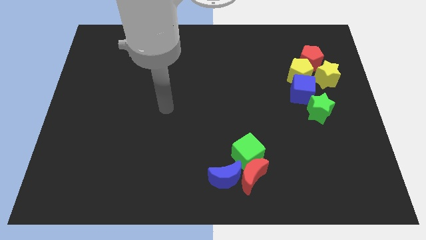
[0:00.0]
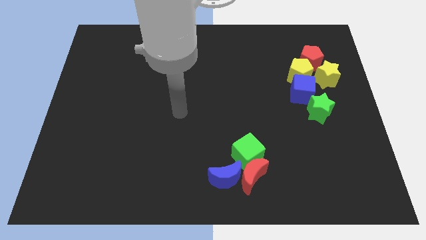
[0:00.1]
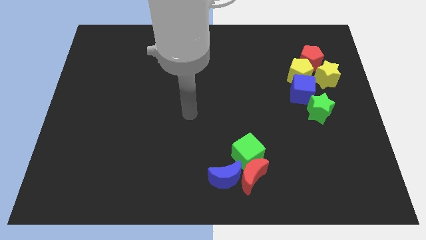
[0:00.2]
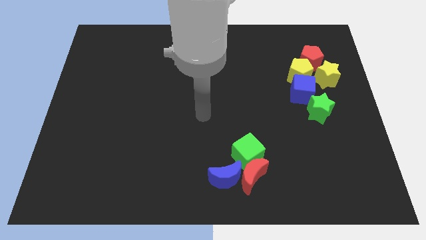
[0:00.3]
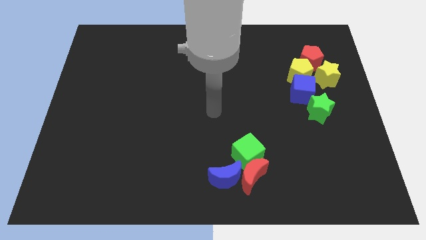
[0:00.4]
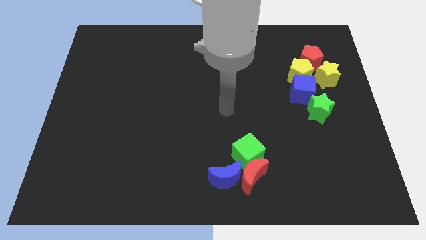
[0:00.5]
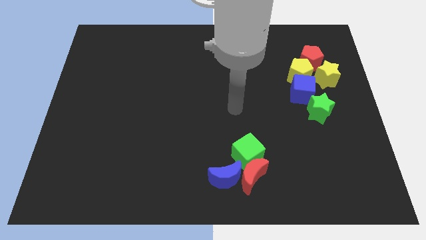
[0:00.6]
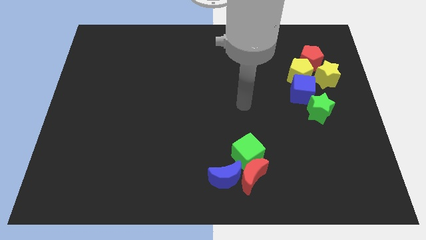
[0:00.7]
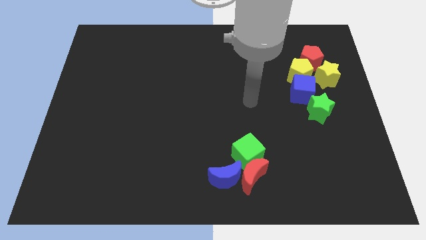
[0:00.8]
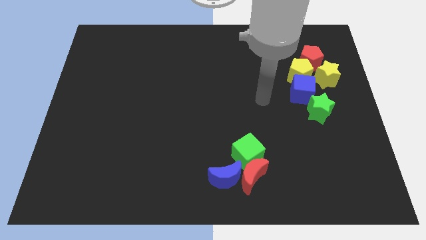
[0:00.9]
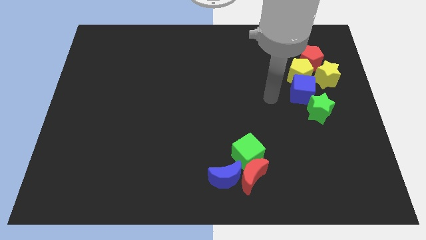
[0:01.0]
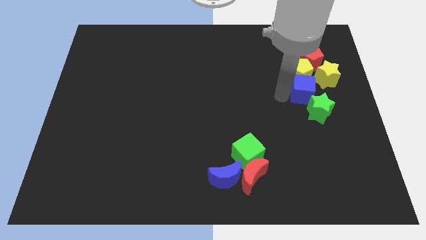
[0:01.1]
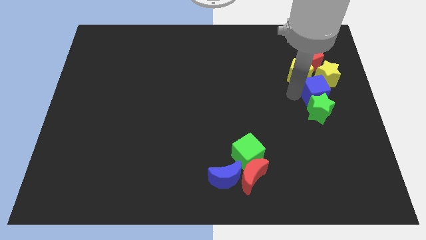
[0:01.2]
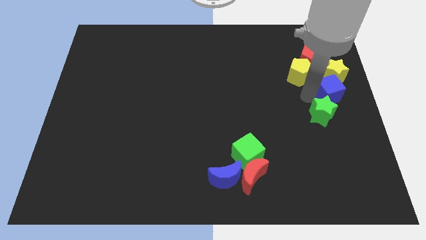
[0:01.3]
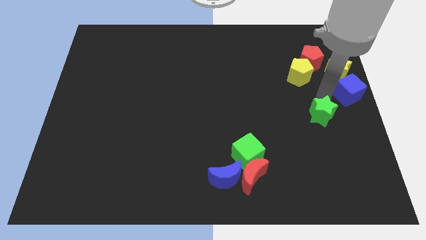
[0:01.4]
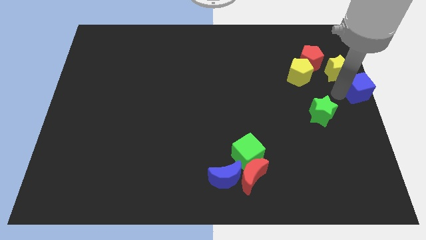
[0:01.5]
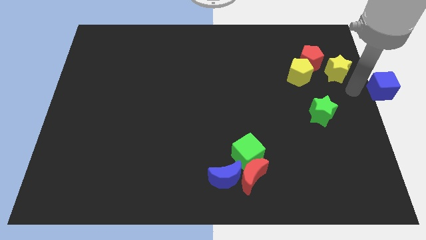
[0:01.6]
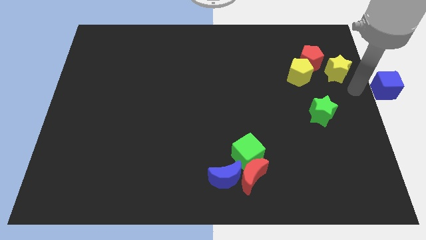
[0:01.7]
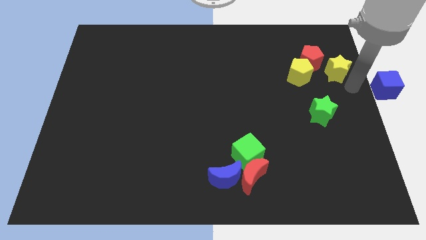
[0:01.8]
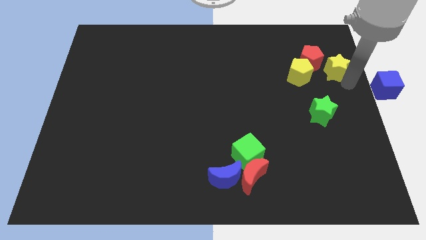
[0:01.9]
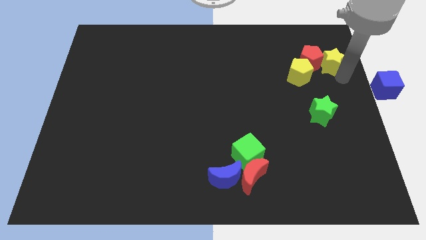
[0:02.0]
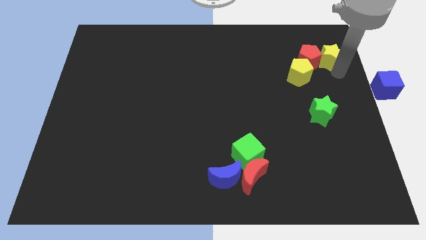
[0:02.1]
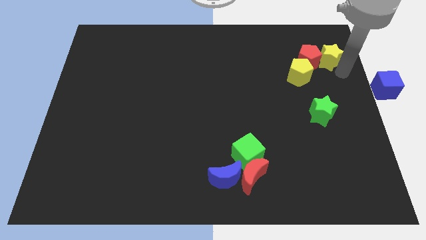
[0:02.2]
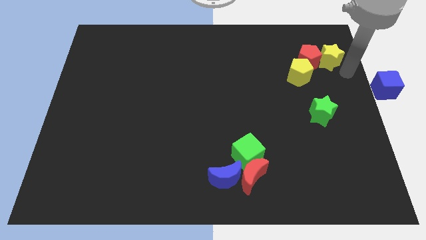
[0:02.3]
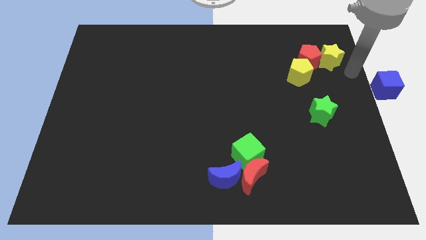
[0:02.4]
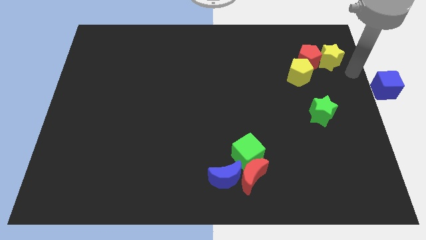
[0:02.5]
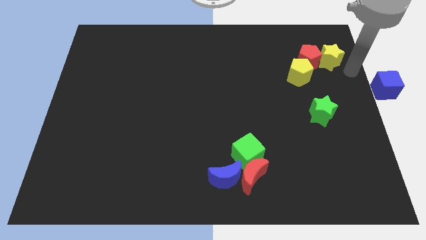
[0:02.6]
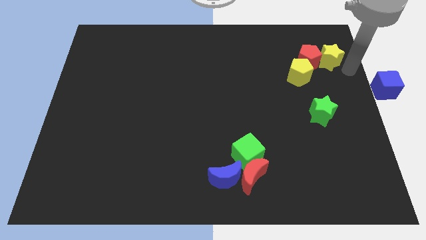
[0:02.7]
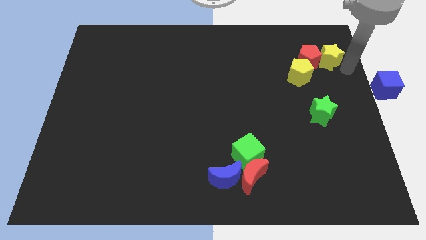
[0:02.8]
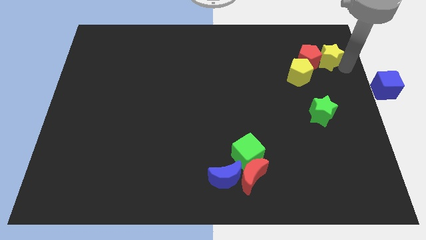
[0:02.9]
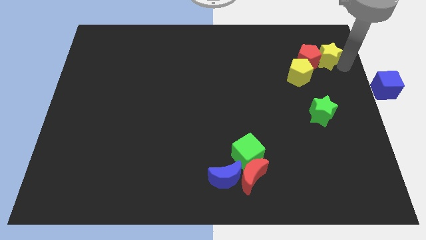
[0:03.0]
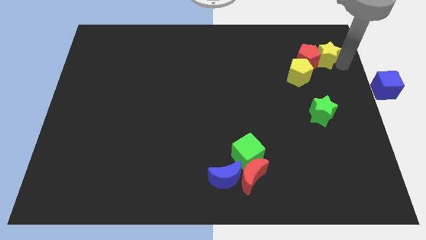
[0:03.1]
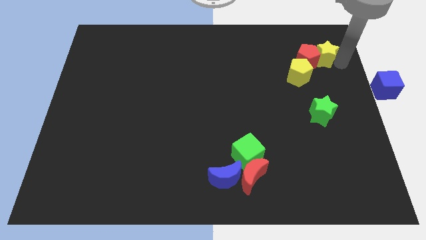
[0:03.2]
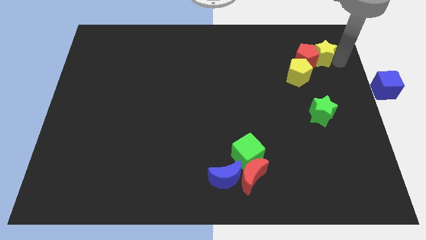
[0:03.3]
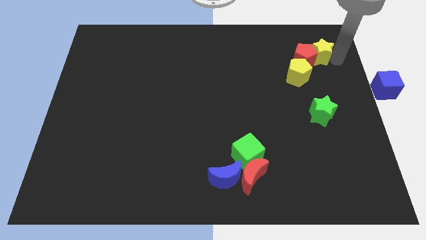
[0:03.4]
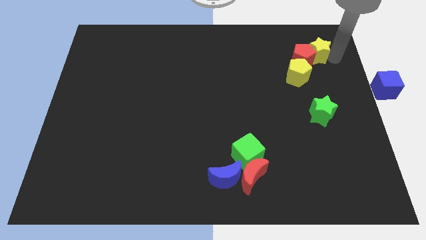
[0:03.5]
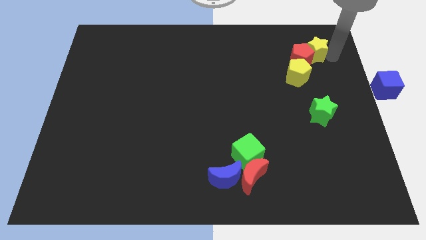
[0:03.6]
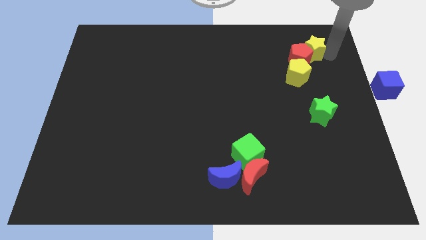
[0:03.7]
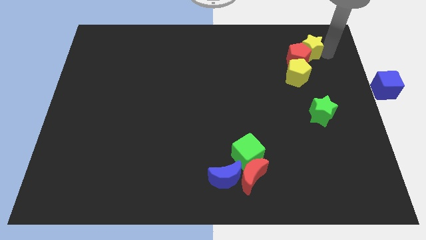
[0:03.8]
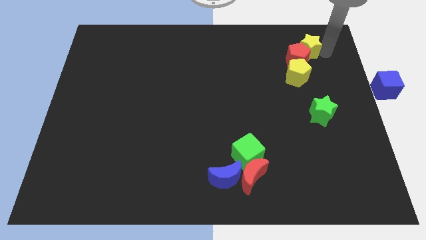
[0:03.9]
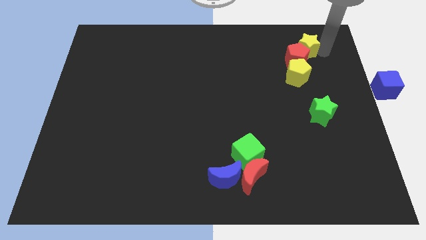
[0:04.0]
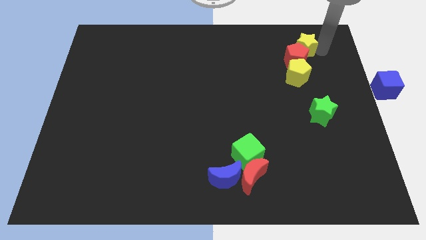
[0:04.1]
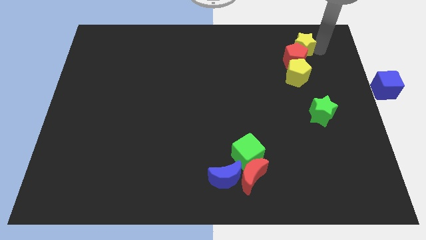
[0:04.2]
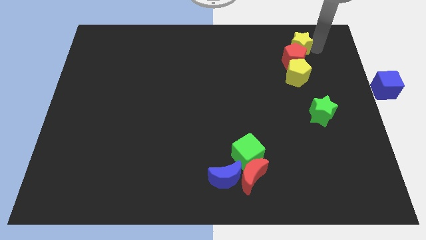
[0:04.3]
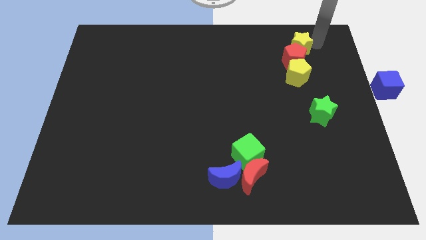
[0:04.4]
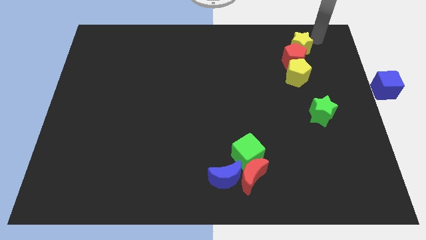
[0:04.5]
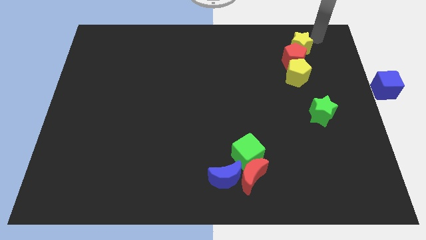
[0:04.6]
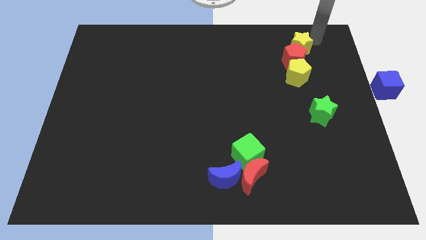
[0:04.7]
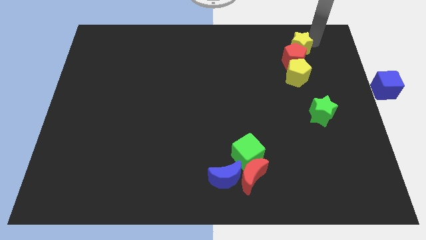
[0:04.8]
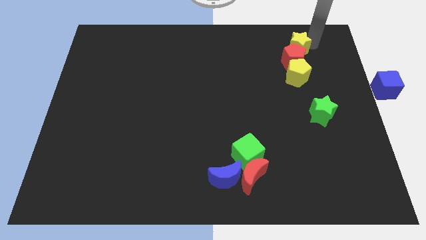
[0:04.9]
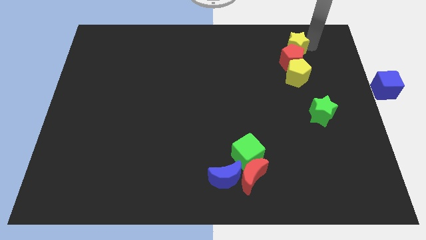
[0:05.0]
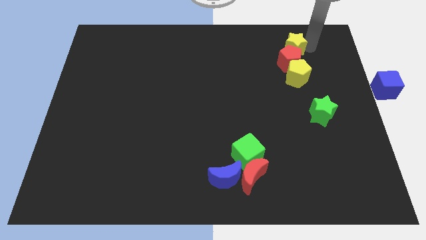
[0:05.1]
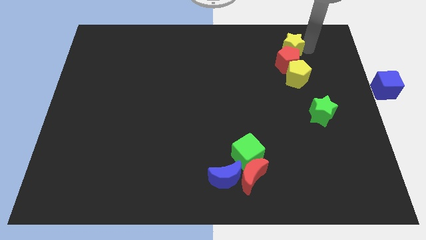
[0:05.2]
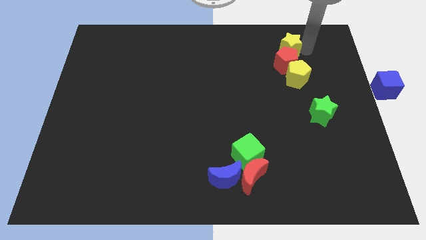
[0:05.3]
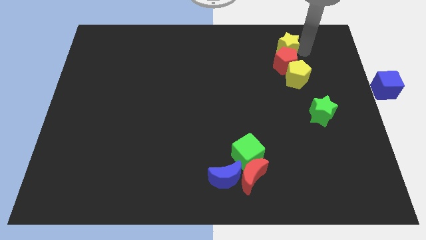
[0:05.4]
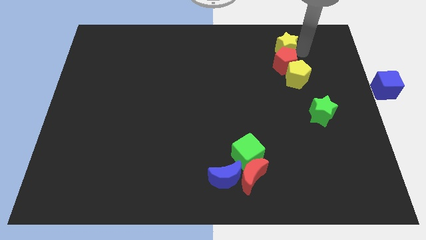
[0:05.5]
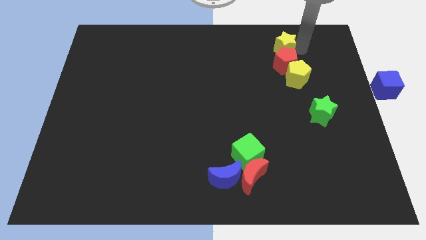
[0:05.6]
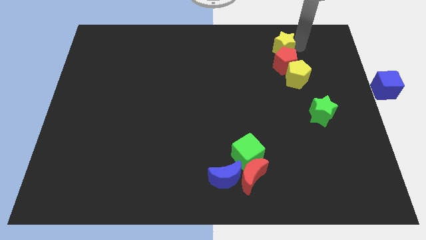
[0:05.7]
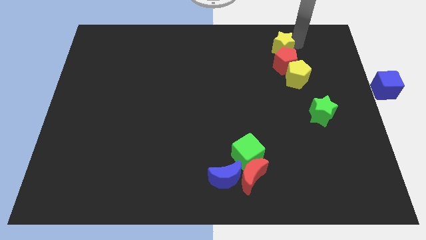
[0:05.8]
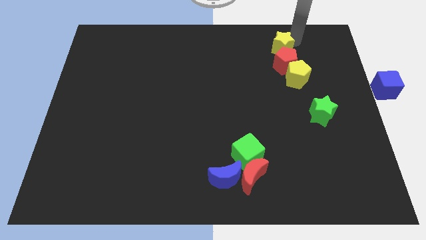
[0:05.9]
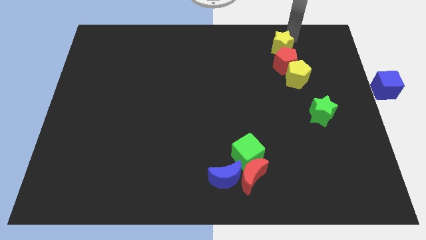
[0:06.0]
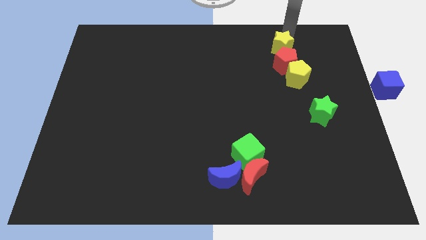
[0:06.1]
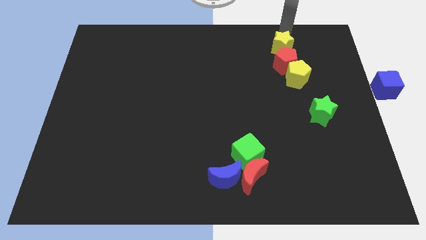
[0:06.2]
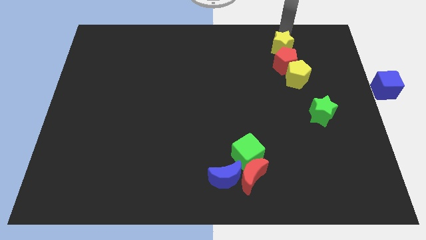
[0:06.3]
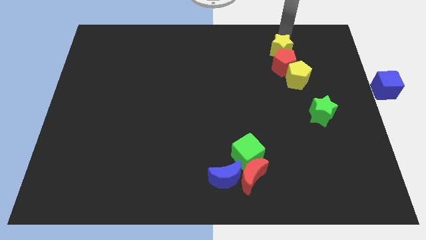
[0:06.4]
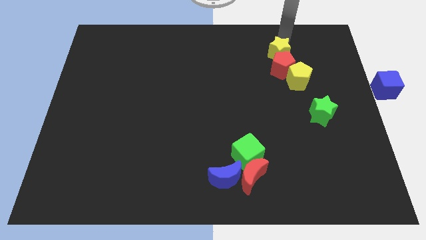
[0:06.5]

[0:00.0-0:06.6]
slide the yellow star a little bit to the left

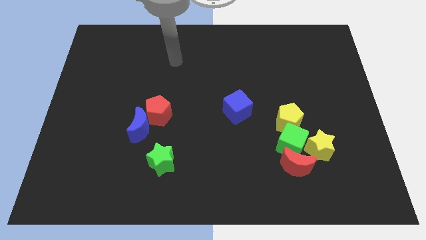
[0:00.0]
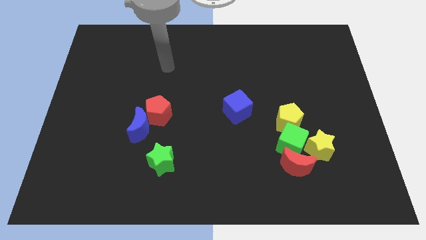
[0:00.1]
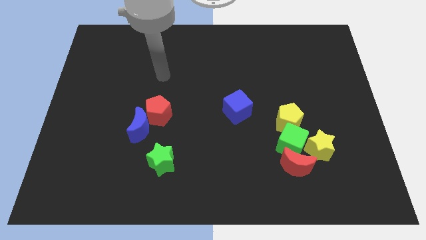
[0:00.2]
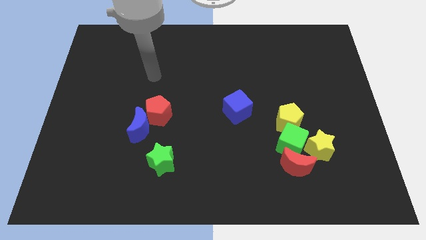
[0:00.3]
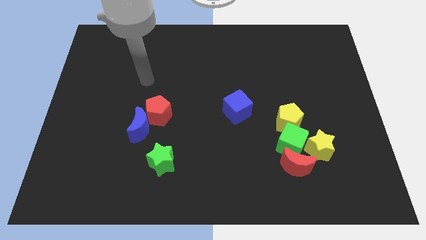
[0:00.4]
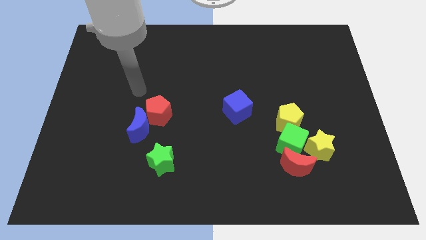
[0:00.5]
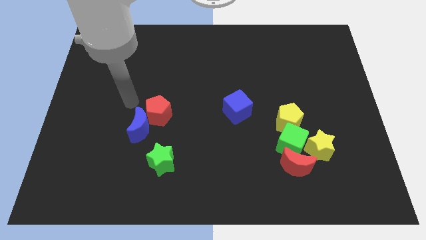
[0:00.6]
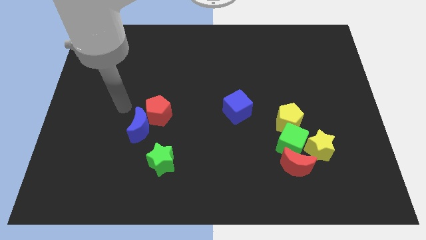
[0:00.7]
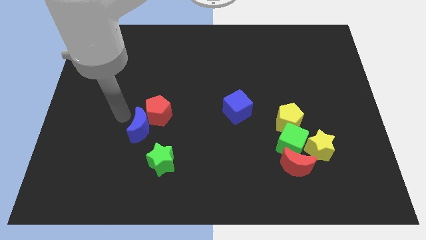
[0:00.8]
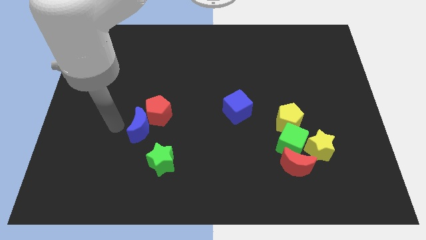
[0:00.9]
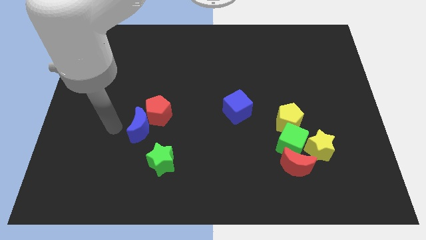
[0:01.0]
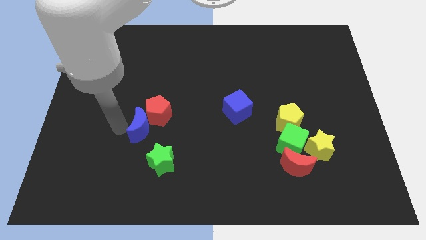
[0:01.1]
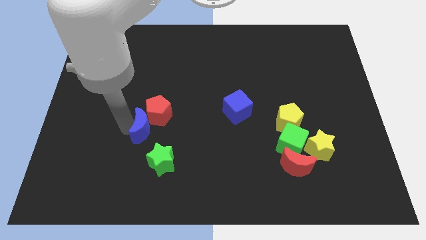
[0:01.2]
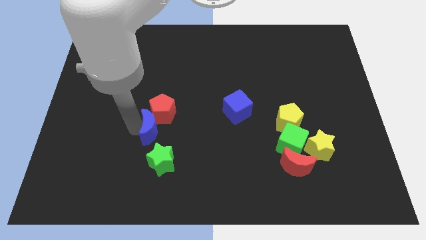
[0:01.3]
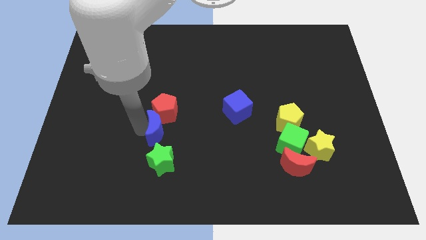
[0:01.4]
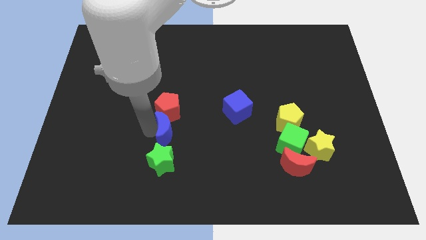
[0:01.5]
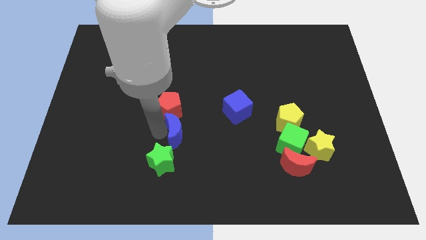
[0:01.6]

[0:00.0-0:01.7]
slightly slide the blue moon to the right
